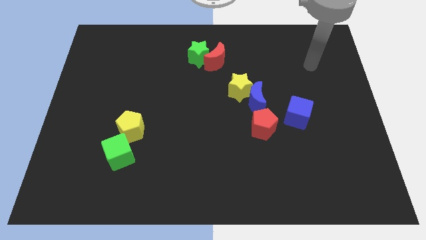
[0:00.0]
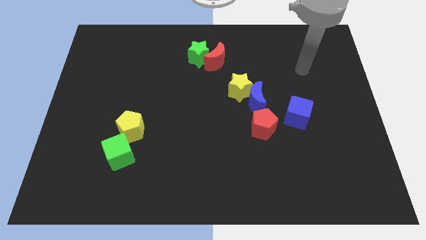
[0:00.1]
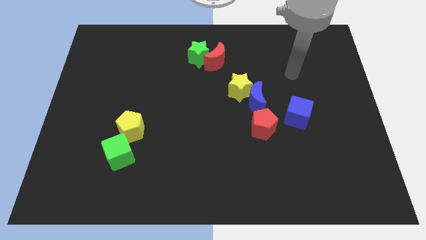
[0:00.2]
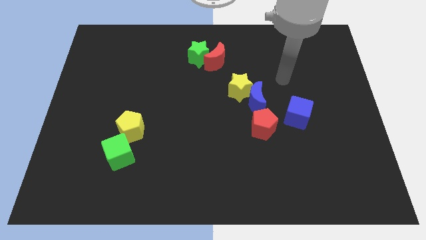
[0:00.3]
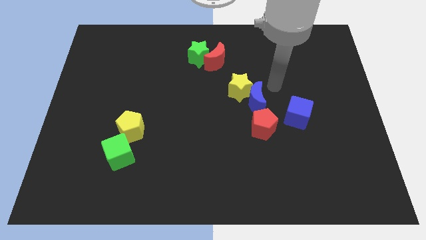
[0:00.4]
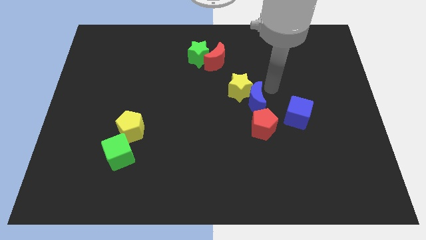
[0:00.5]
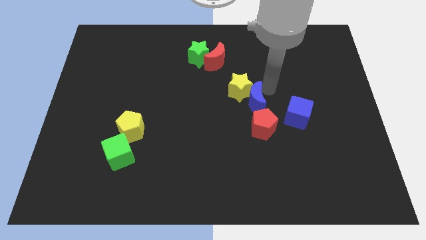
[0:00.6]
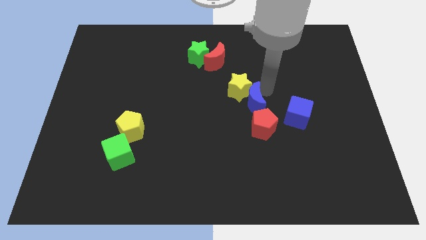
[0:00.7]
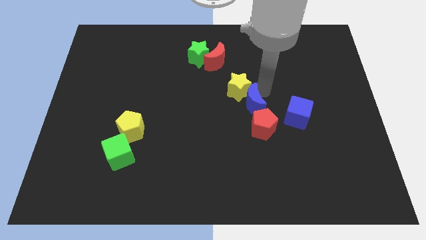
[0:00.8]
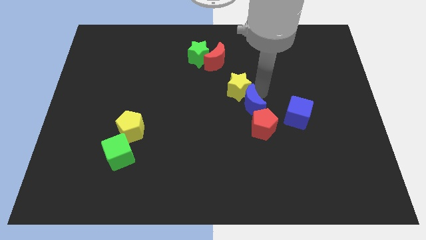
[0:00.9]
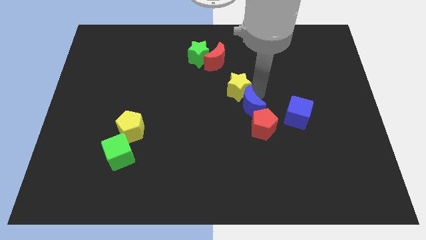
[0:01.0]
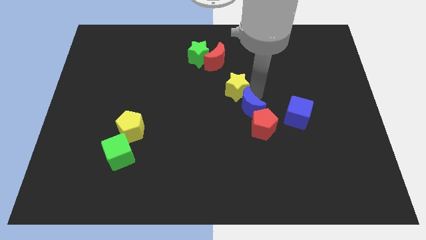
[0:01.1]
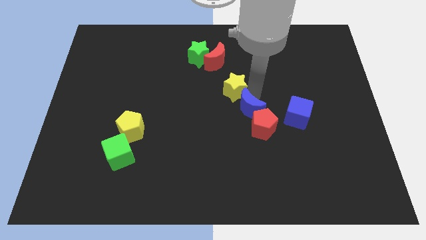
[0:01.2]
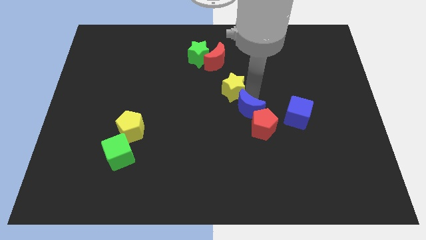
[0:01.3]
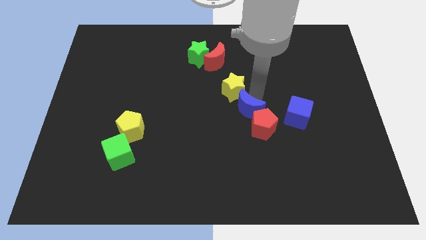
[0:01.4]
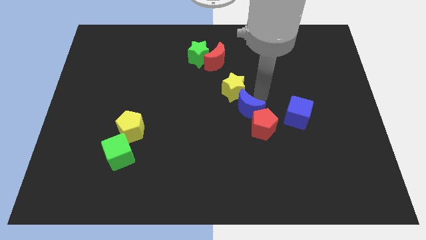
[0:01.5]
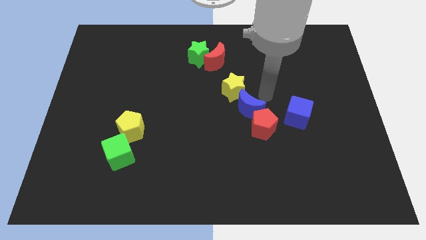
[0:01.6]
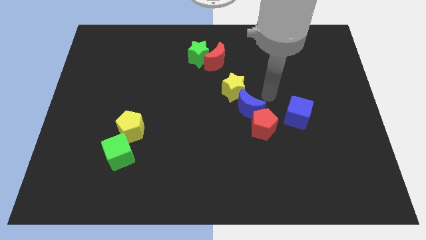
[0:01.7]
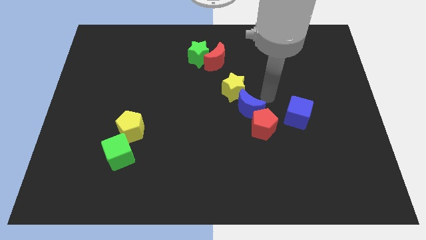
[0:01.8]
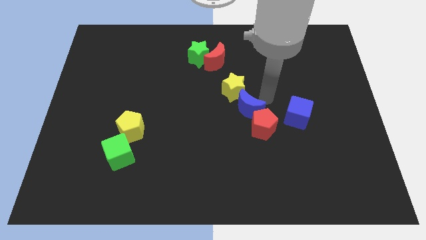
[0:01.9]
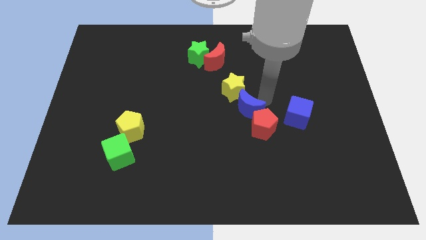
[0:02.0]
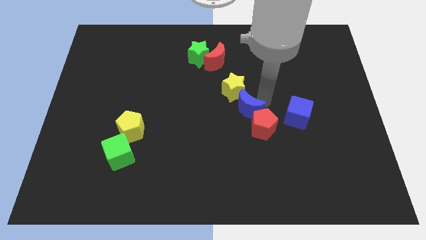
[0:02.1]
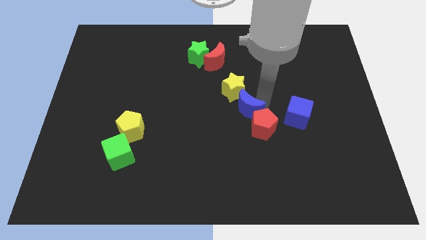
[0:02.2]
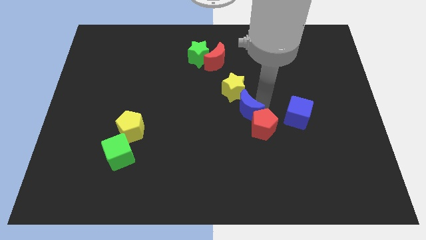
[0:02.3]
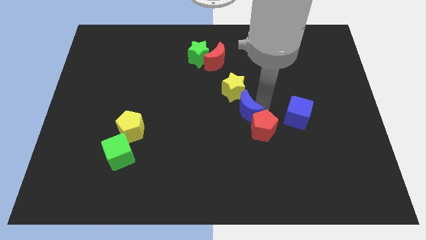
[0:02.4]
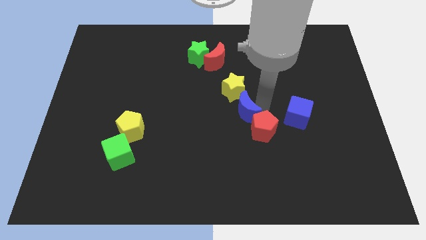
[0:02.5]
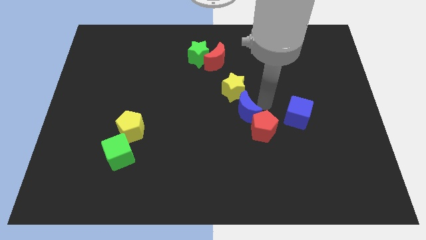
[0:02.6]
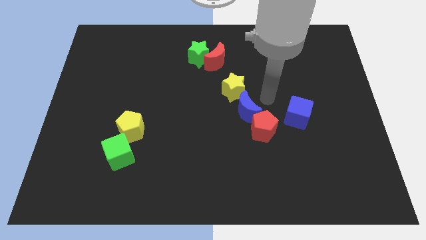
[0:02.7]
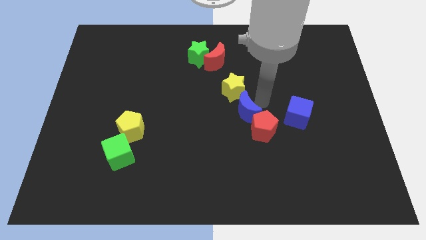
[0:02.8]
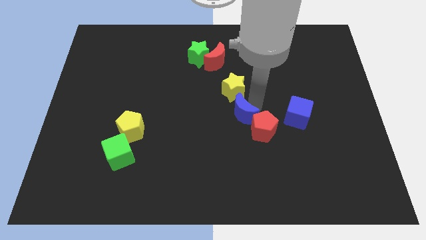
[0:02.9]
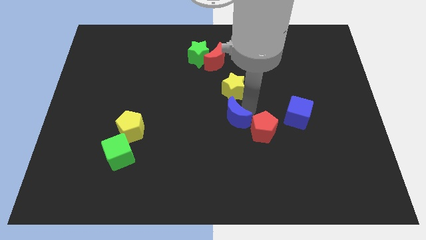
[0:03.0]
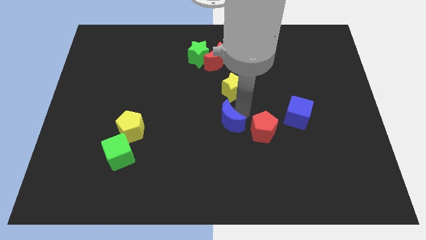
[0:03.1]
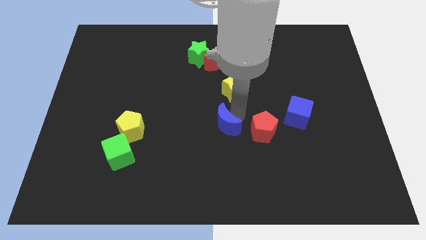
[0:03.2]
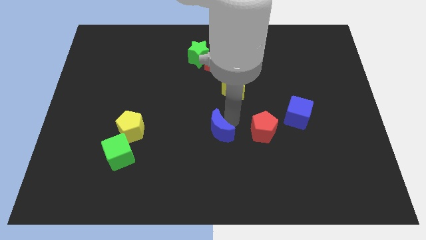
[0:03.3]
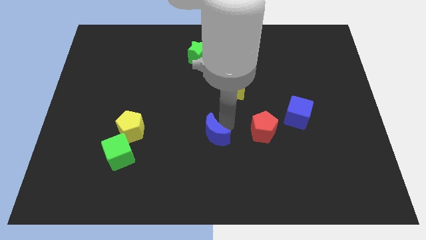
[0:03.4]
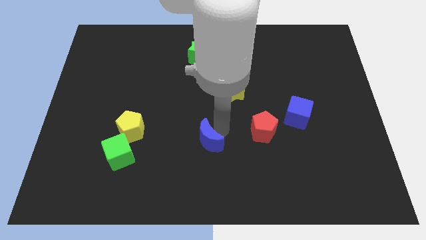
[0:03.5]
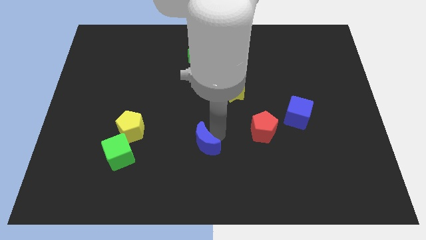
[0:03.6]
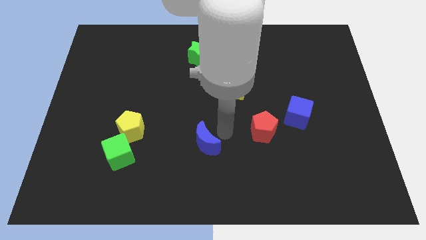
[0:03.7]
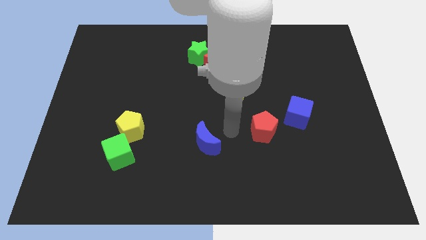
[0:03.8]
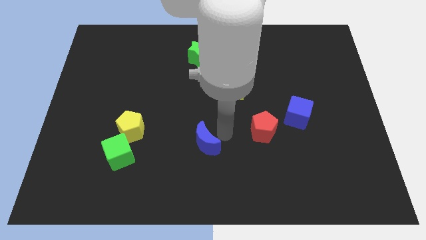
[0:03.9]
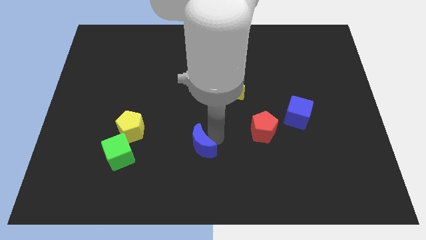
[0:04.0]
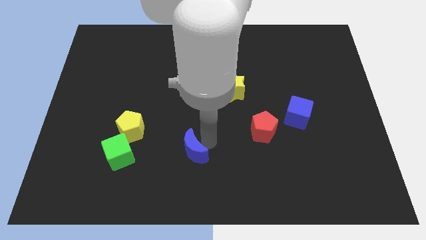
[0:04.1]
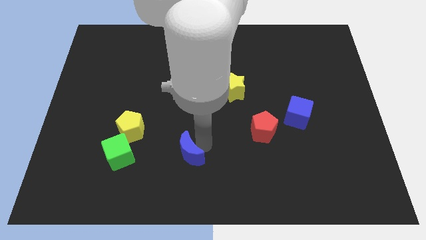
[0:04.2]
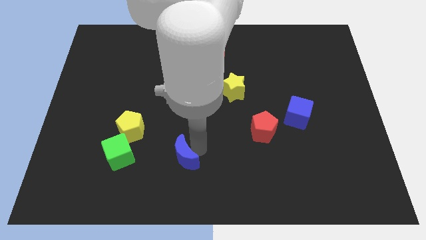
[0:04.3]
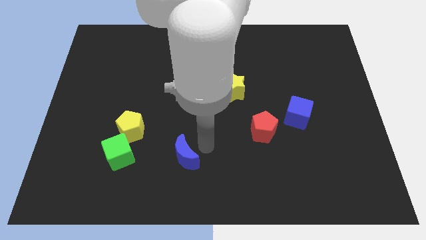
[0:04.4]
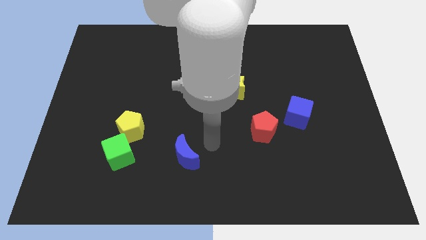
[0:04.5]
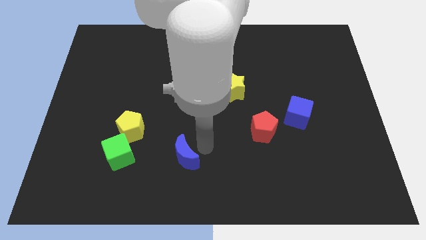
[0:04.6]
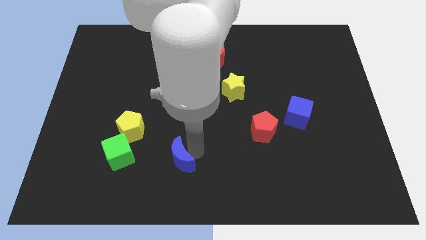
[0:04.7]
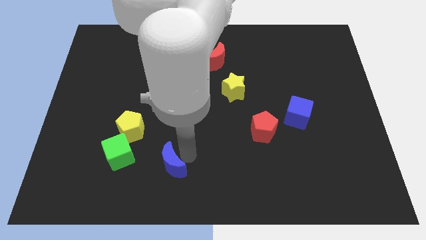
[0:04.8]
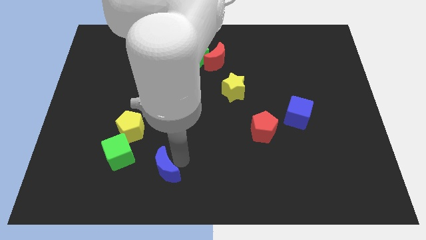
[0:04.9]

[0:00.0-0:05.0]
put the blue moon to the bottom right of the green cube

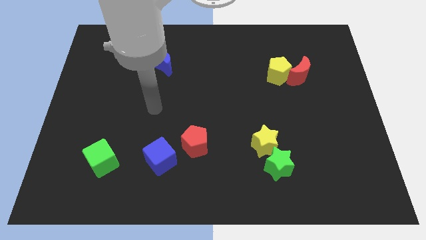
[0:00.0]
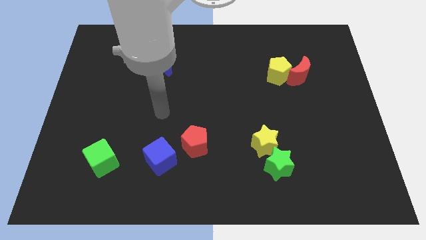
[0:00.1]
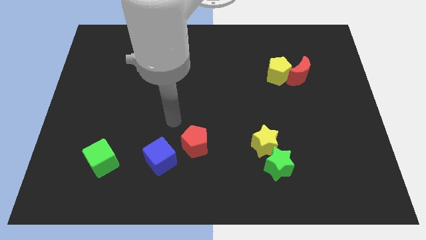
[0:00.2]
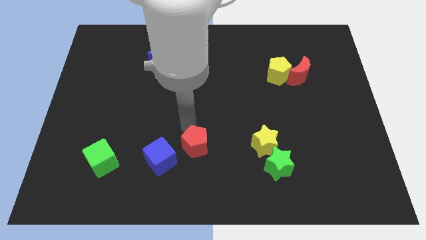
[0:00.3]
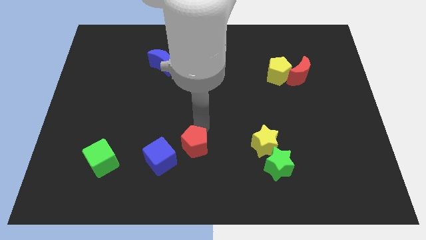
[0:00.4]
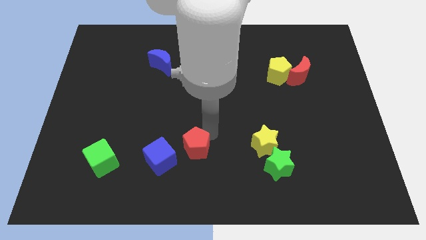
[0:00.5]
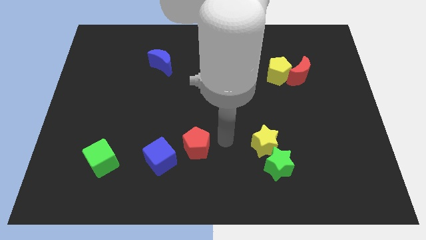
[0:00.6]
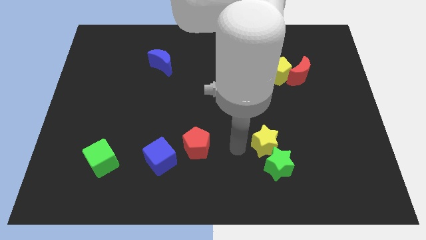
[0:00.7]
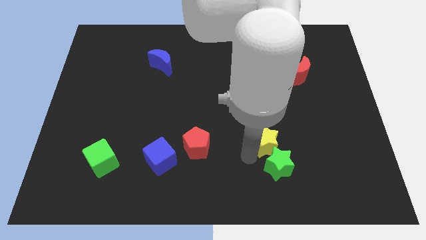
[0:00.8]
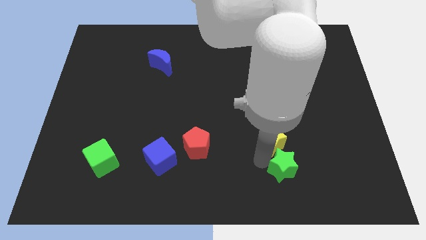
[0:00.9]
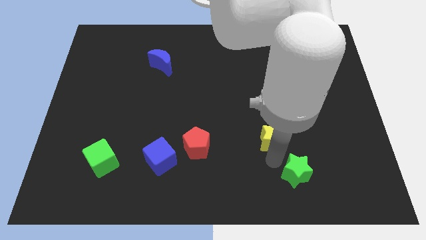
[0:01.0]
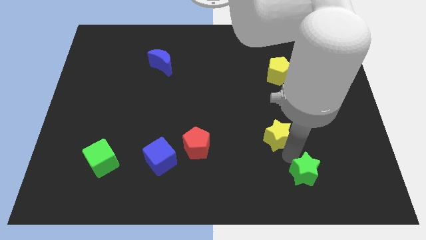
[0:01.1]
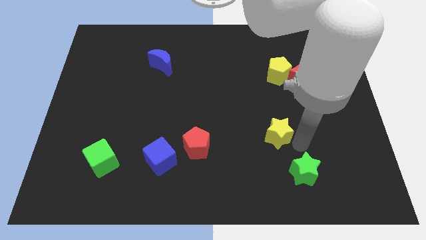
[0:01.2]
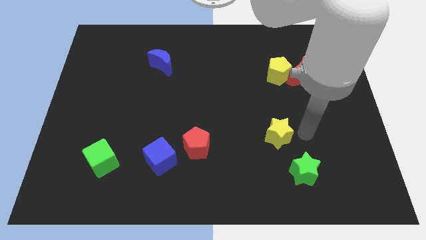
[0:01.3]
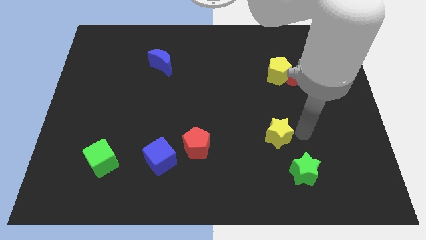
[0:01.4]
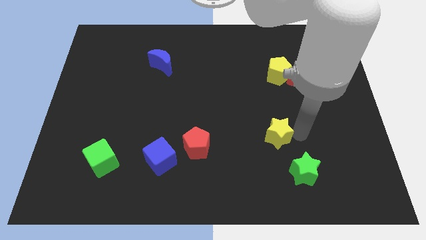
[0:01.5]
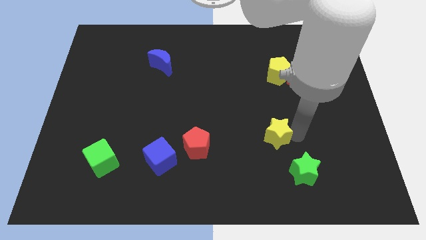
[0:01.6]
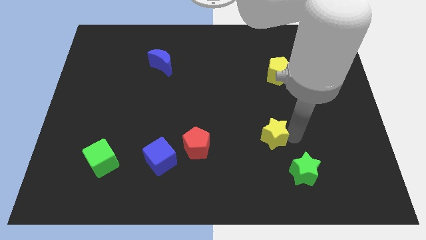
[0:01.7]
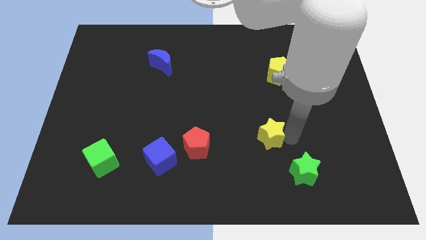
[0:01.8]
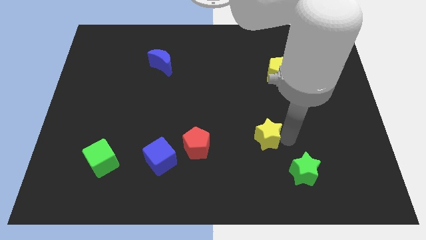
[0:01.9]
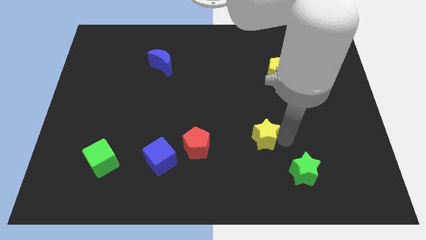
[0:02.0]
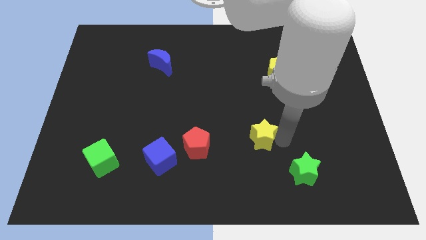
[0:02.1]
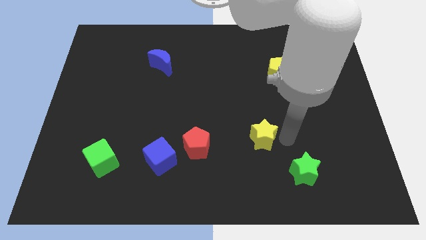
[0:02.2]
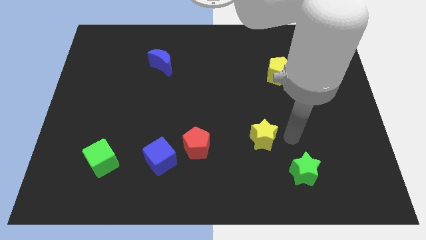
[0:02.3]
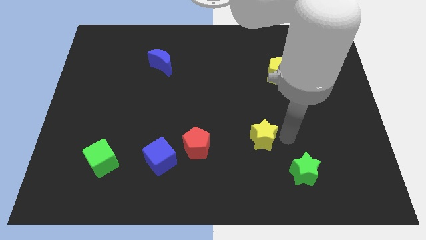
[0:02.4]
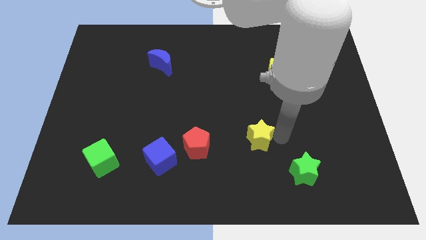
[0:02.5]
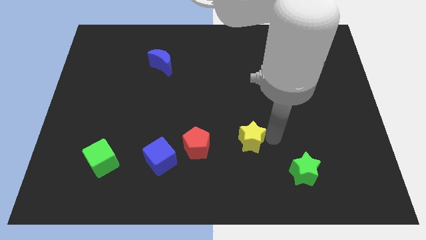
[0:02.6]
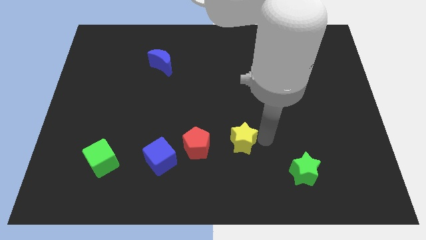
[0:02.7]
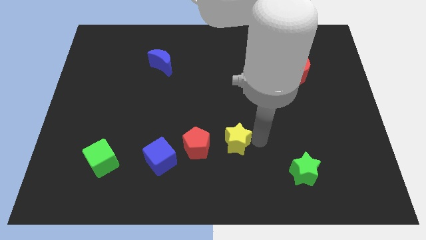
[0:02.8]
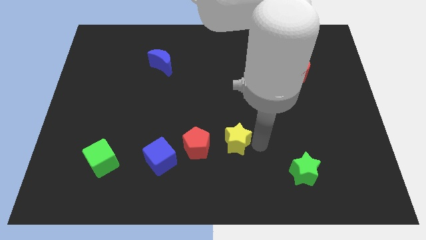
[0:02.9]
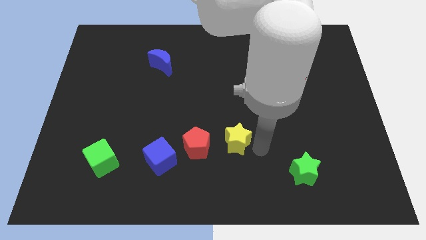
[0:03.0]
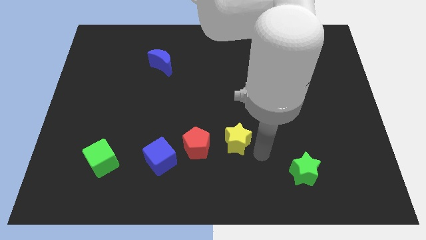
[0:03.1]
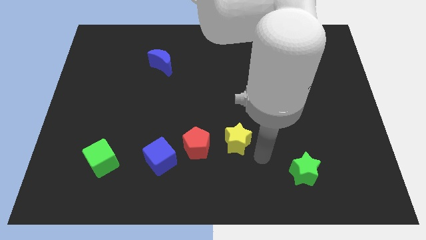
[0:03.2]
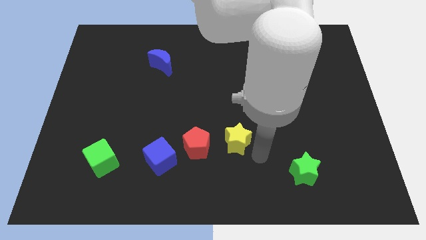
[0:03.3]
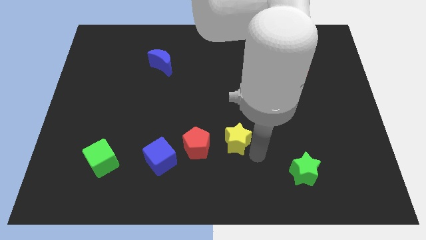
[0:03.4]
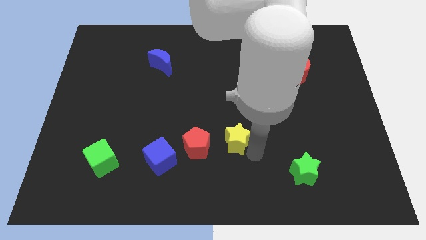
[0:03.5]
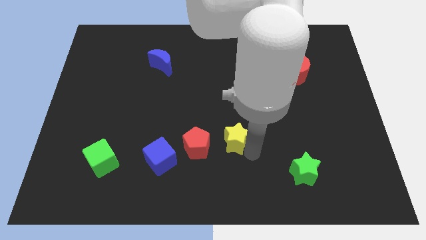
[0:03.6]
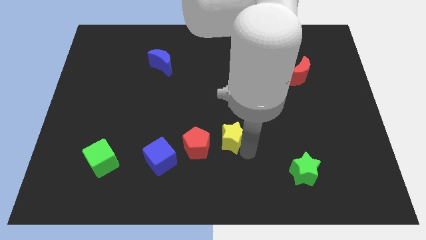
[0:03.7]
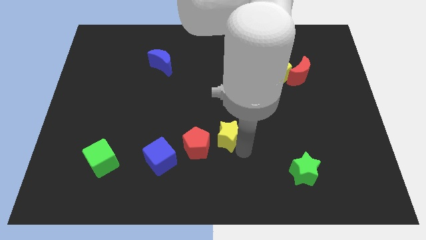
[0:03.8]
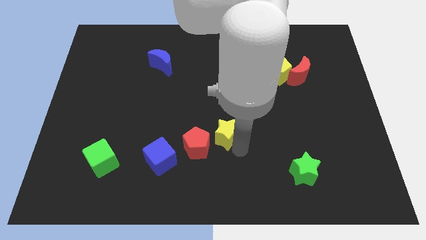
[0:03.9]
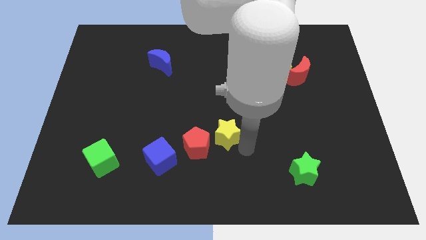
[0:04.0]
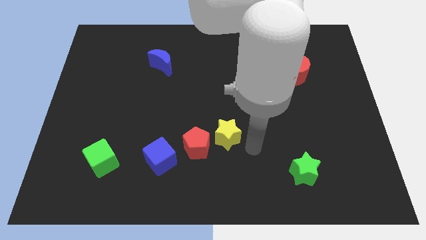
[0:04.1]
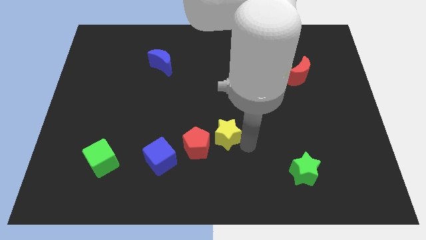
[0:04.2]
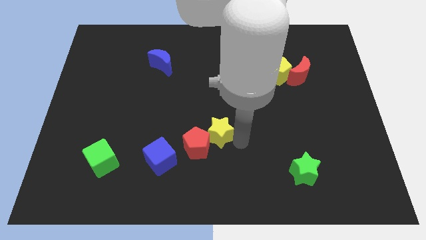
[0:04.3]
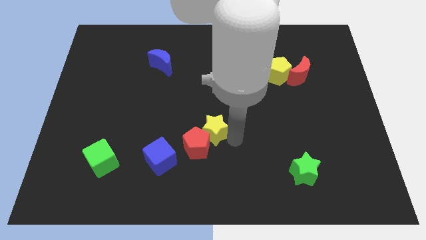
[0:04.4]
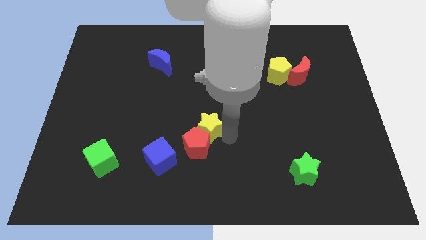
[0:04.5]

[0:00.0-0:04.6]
push the yellow star to the top right of the blue cube
